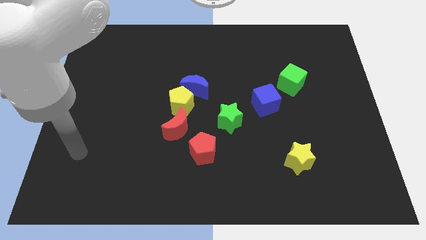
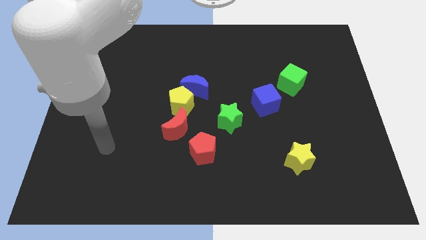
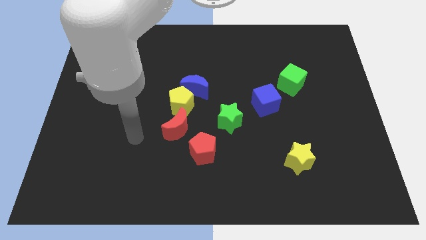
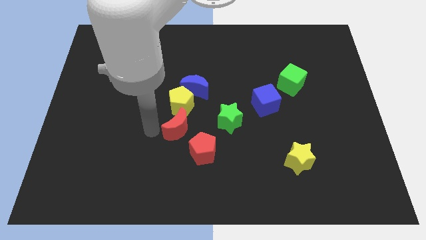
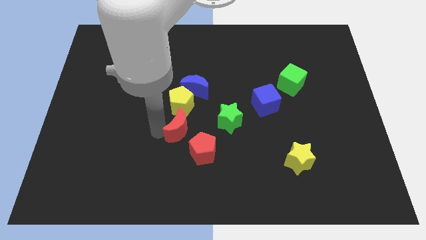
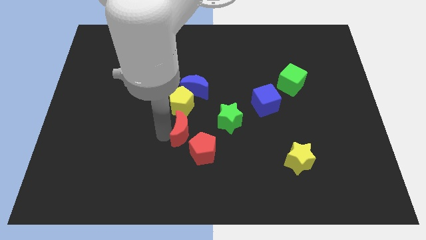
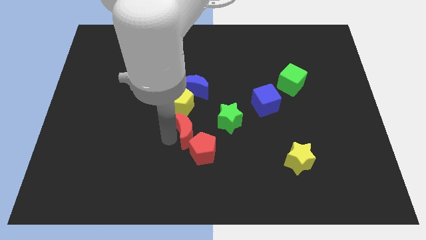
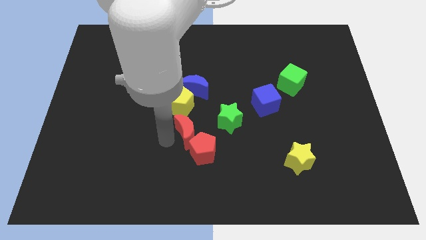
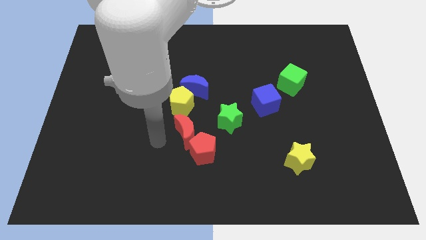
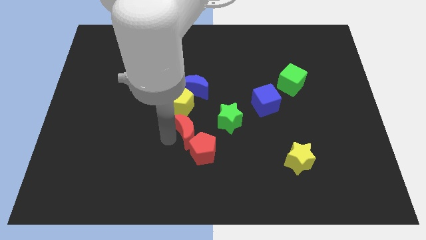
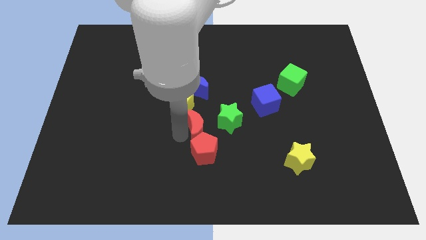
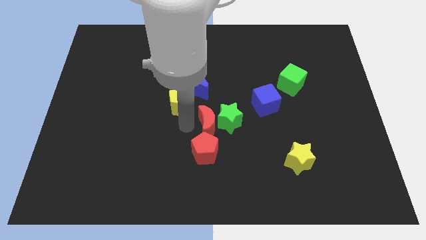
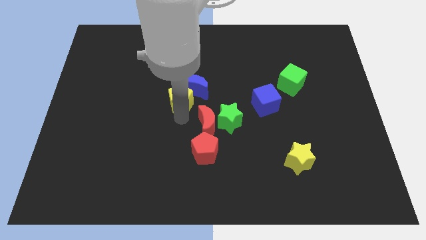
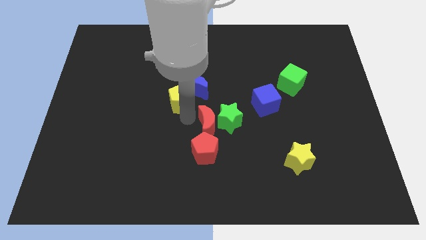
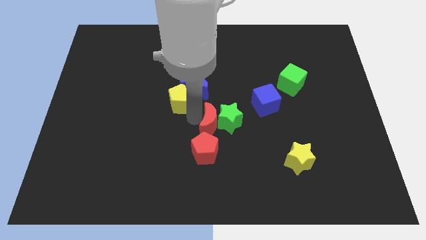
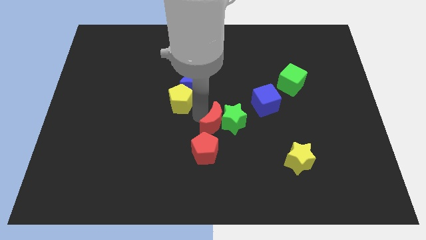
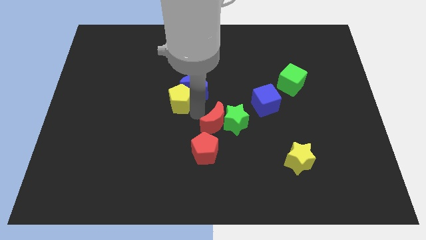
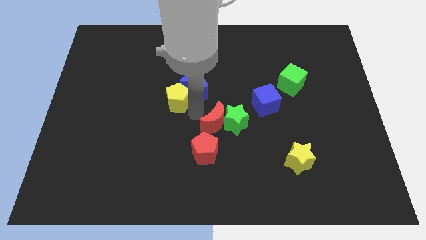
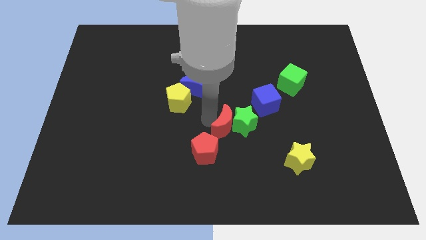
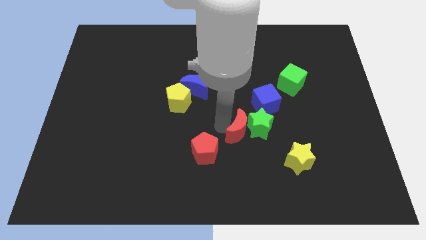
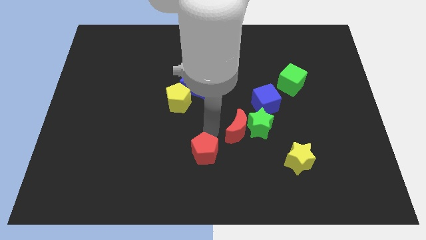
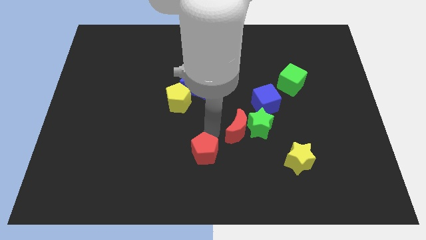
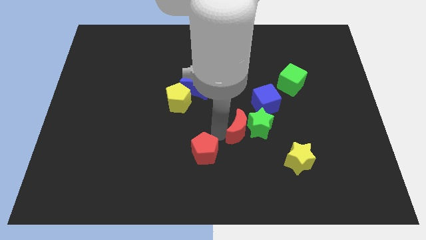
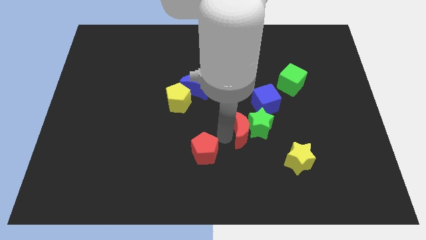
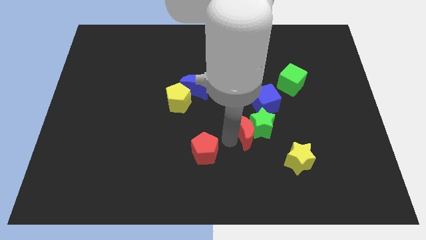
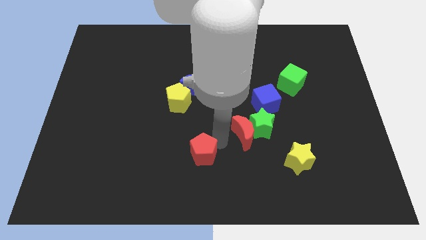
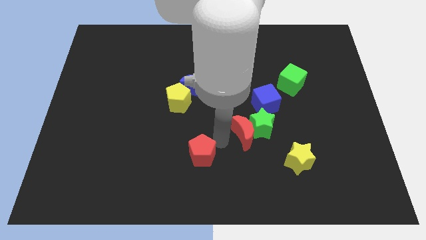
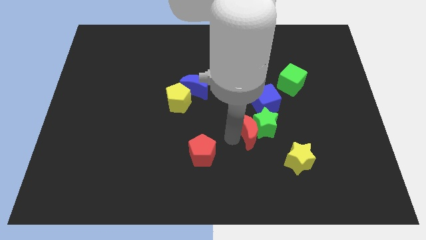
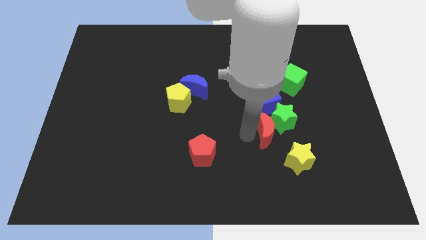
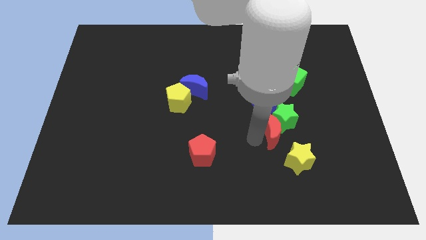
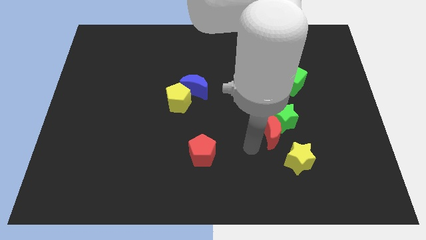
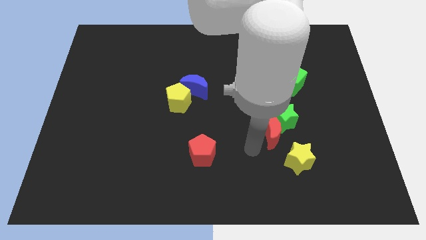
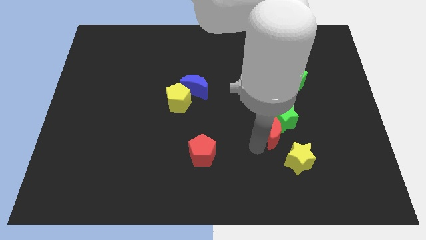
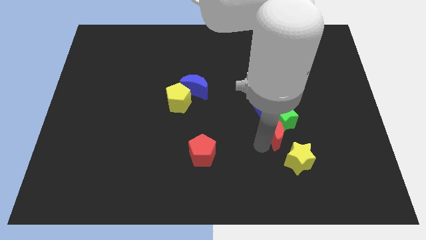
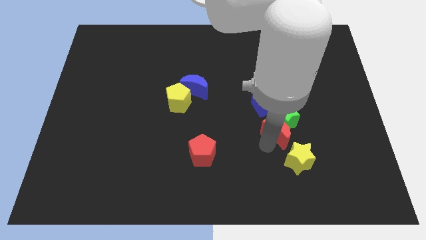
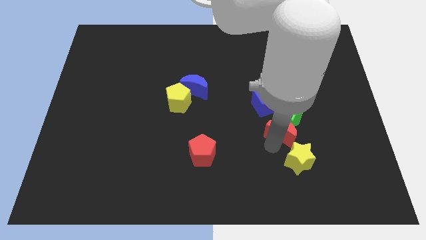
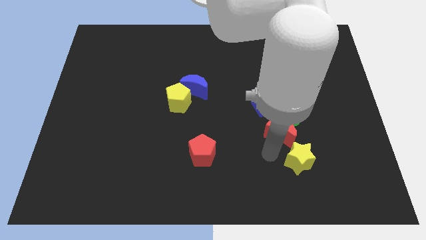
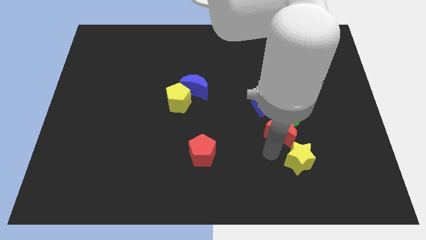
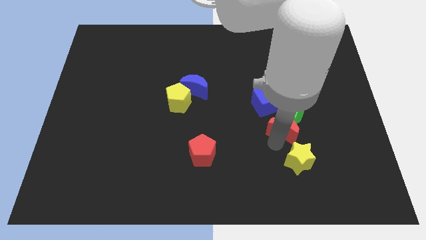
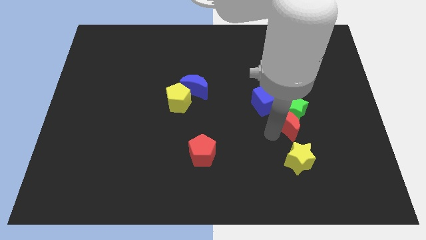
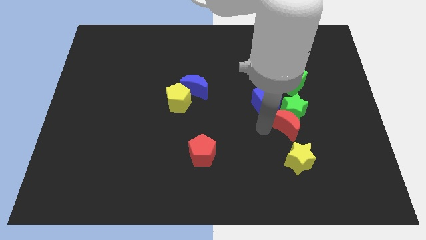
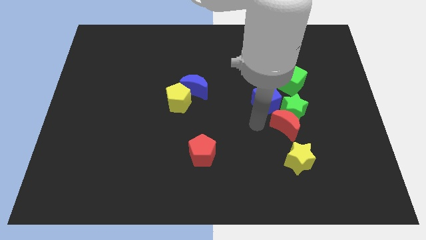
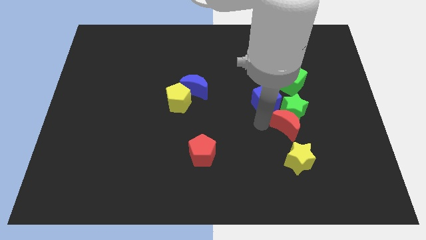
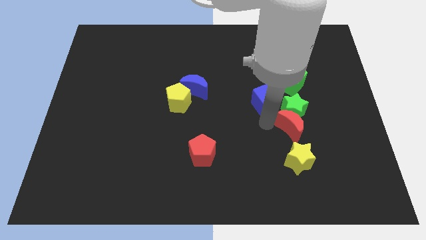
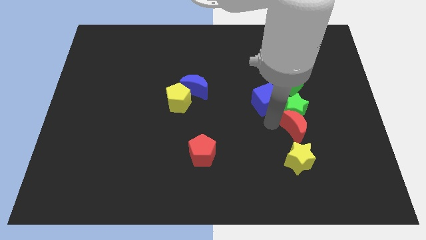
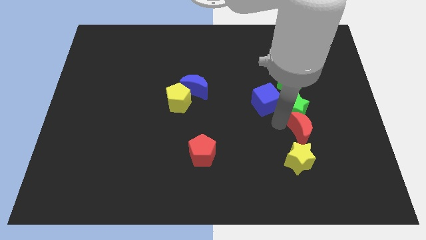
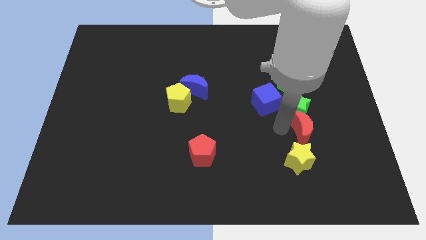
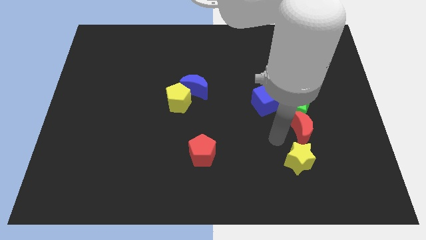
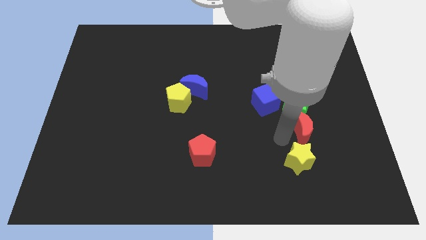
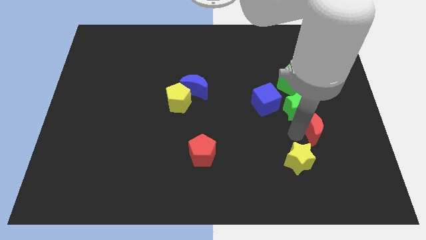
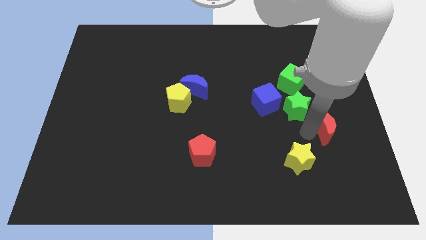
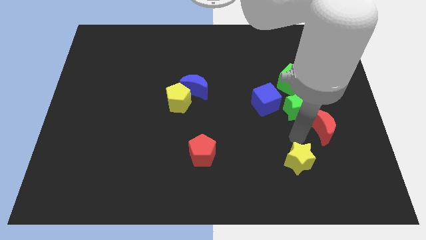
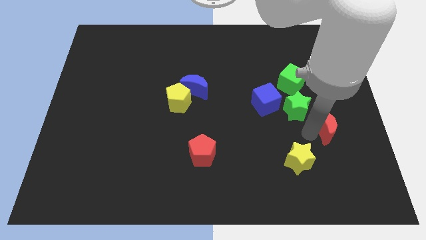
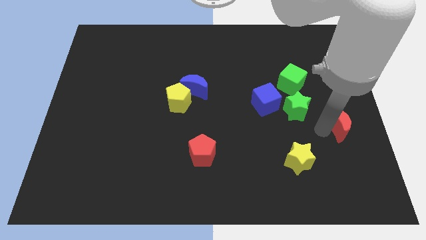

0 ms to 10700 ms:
move the red moon to the right side
